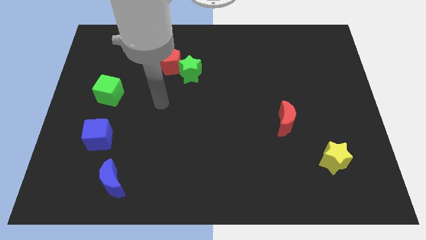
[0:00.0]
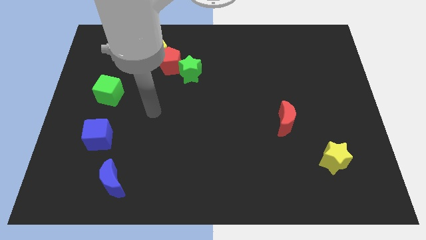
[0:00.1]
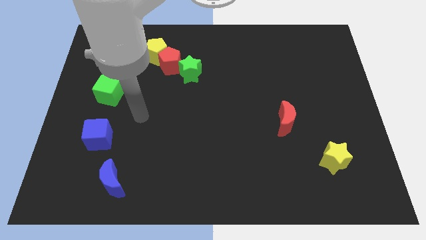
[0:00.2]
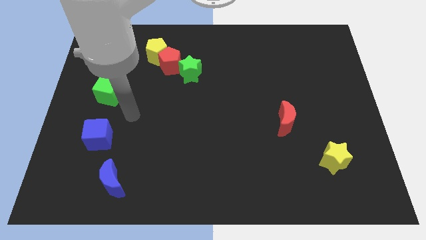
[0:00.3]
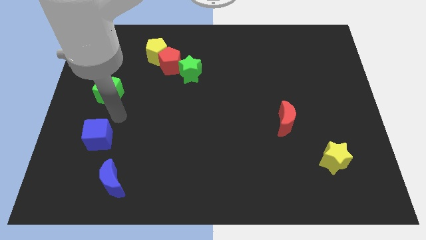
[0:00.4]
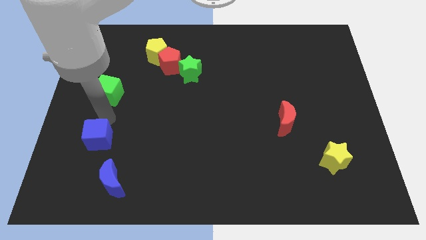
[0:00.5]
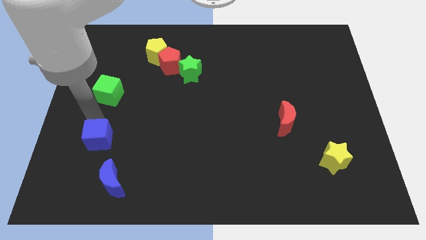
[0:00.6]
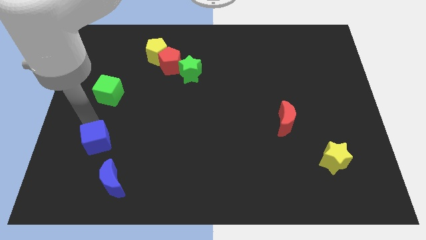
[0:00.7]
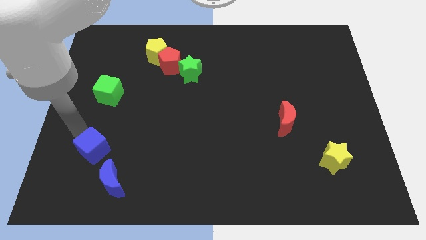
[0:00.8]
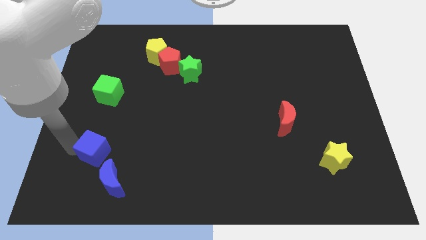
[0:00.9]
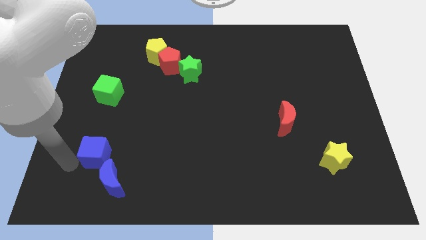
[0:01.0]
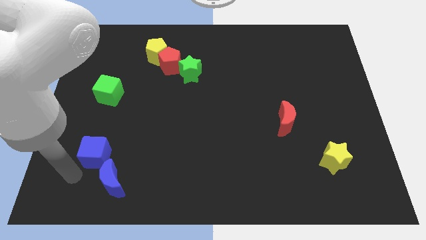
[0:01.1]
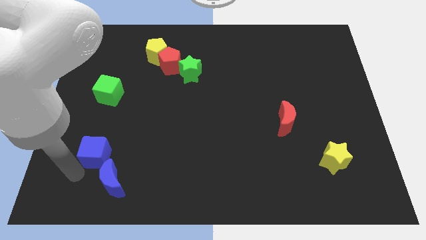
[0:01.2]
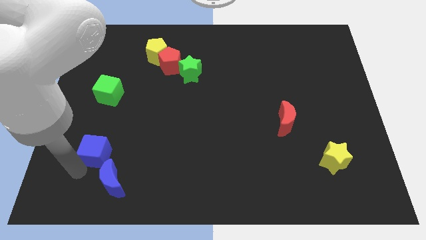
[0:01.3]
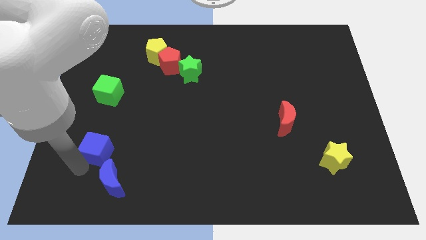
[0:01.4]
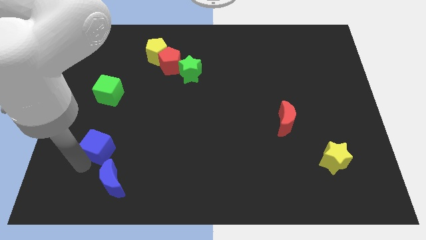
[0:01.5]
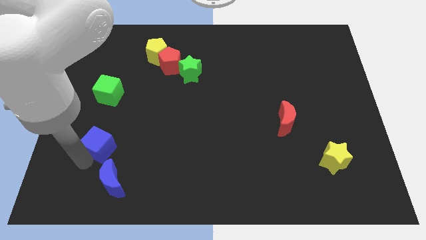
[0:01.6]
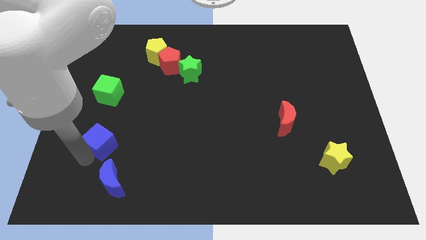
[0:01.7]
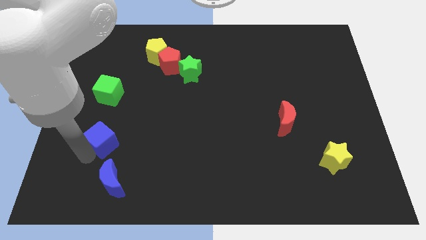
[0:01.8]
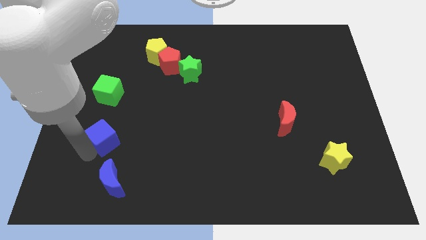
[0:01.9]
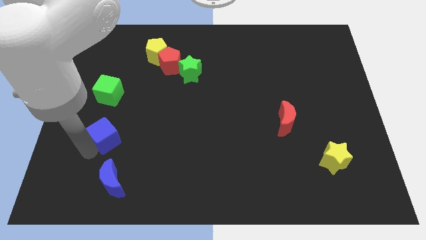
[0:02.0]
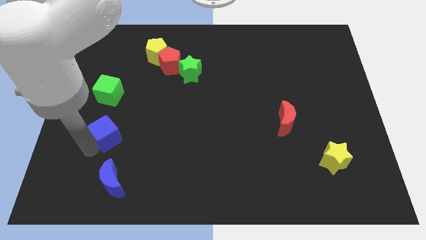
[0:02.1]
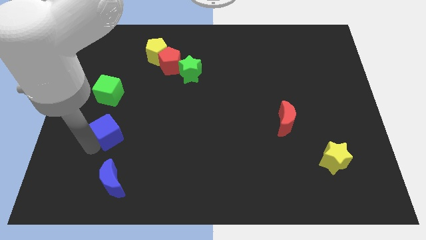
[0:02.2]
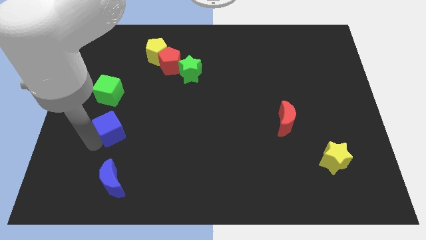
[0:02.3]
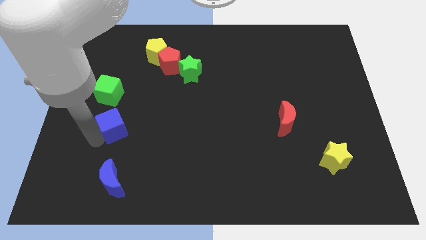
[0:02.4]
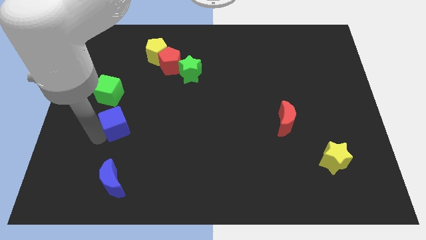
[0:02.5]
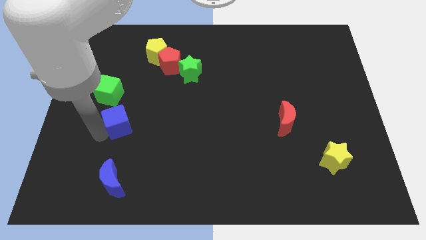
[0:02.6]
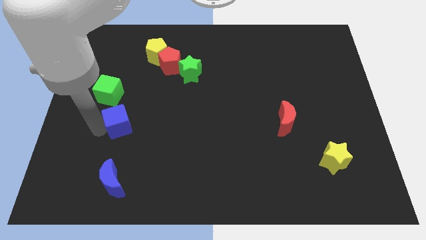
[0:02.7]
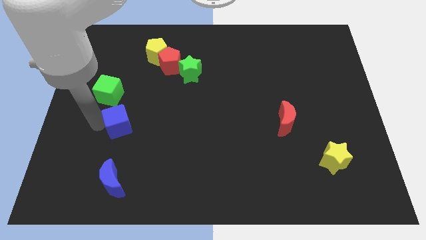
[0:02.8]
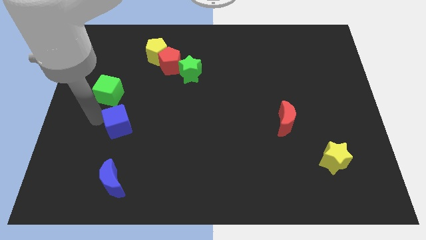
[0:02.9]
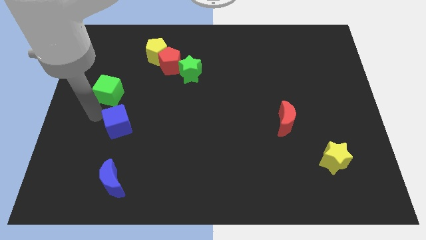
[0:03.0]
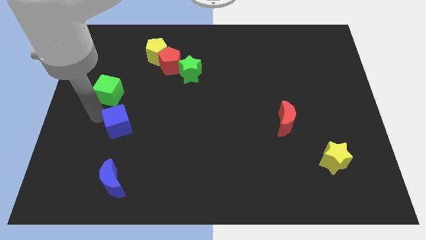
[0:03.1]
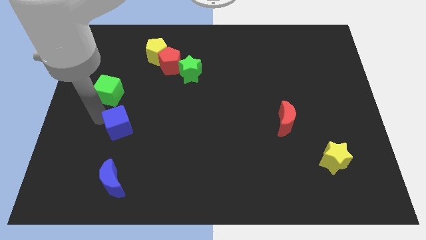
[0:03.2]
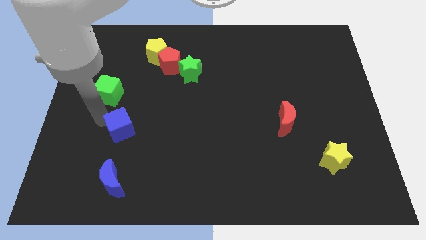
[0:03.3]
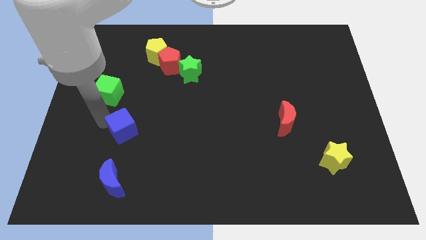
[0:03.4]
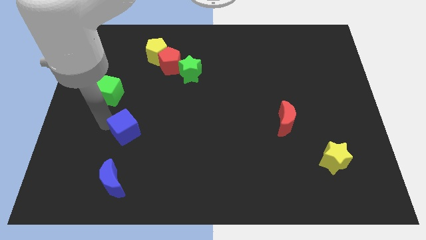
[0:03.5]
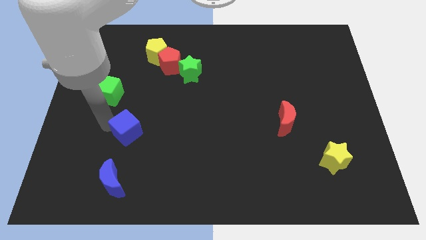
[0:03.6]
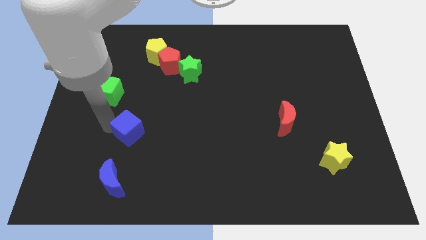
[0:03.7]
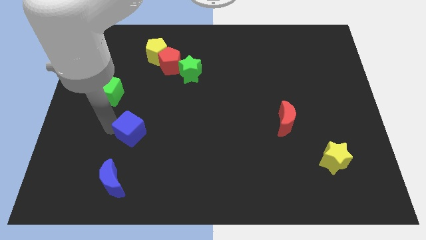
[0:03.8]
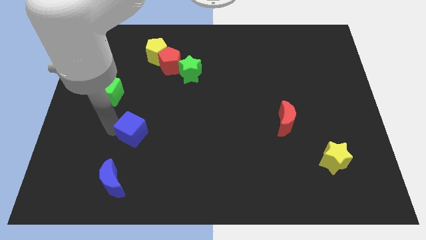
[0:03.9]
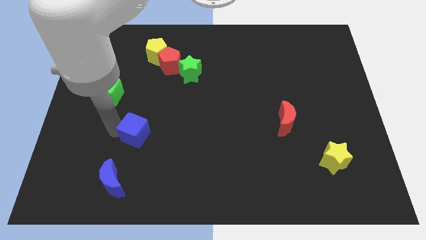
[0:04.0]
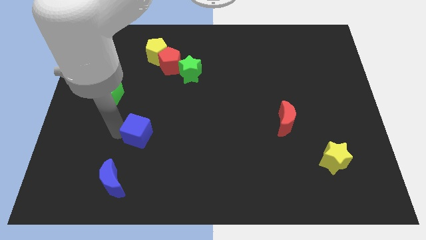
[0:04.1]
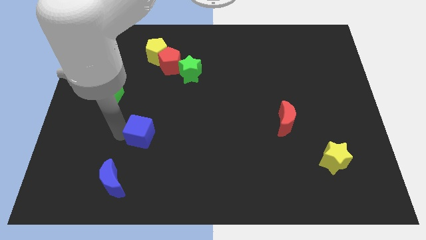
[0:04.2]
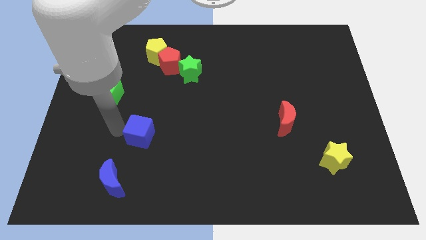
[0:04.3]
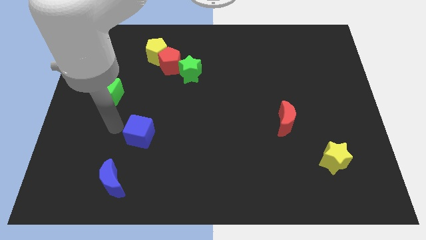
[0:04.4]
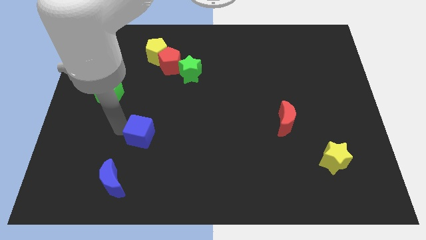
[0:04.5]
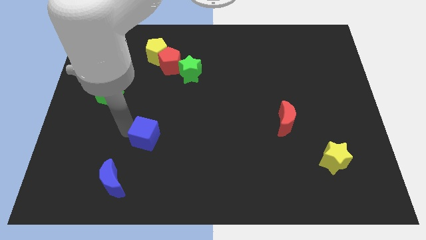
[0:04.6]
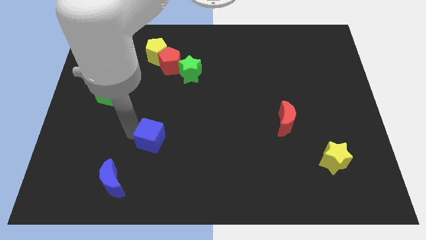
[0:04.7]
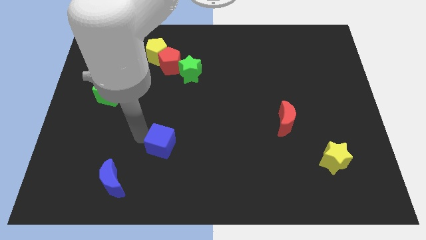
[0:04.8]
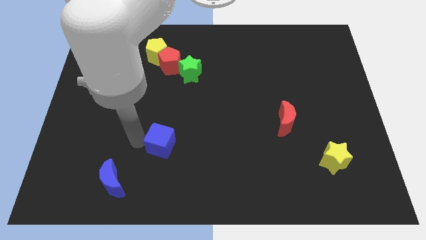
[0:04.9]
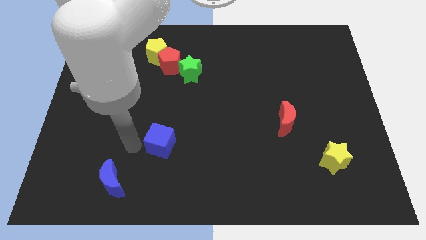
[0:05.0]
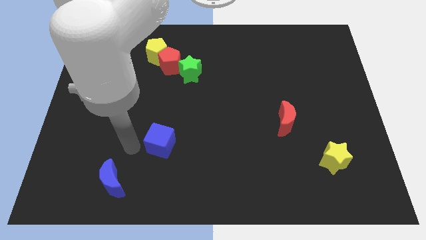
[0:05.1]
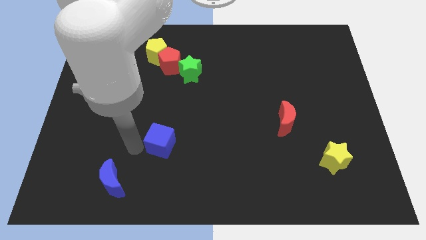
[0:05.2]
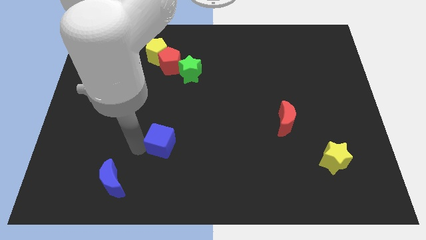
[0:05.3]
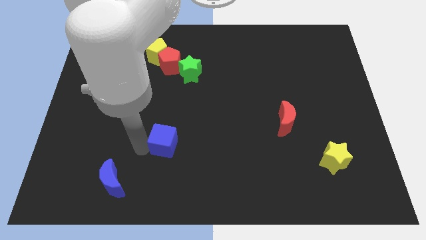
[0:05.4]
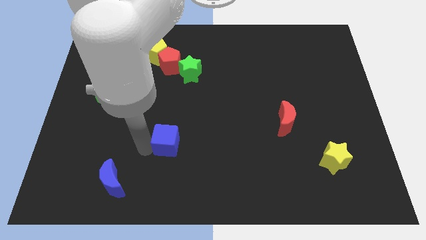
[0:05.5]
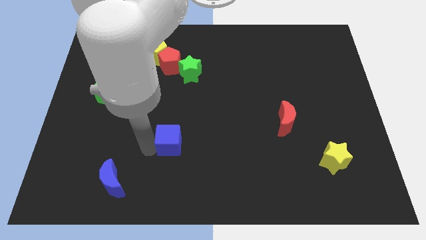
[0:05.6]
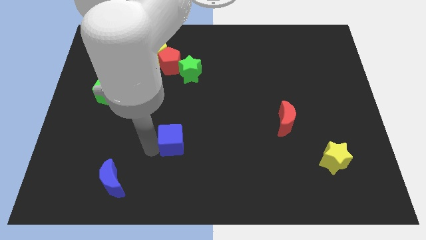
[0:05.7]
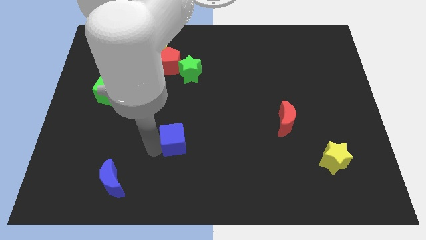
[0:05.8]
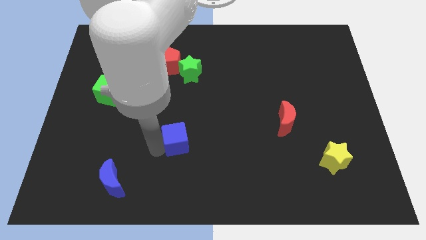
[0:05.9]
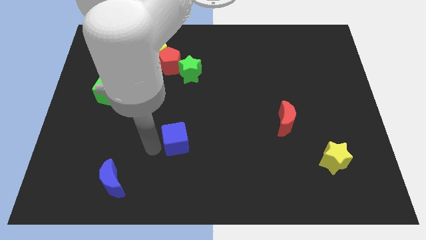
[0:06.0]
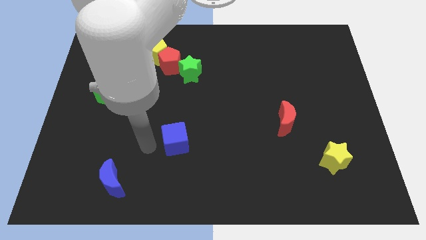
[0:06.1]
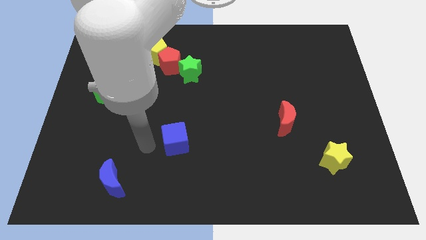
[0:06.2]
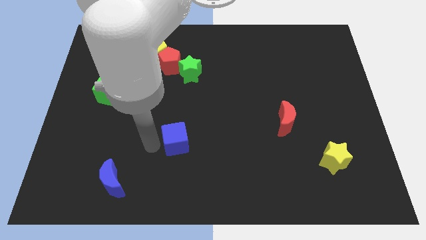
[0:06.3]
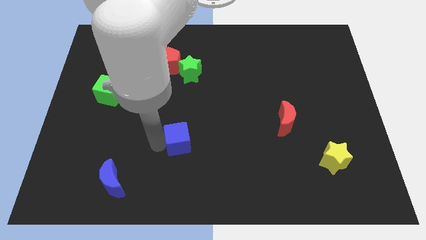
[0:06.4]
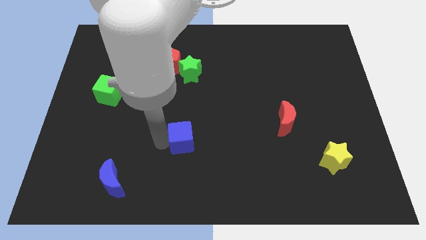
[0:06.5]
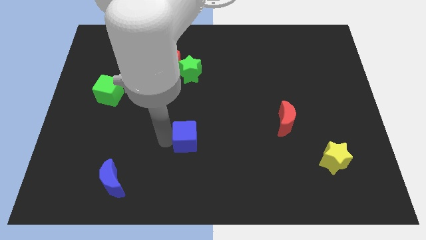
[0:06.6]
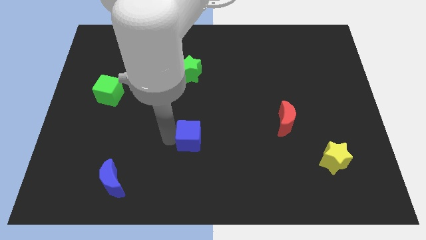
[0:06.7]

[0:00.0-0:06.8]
push the blue cube right

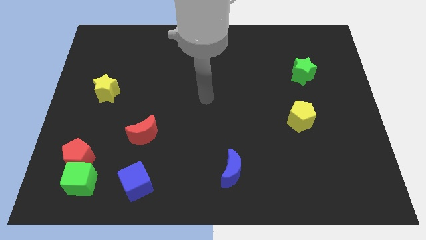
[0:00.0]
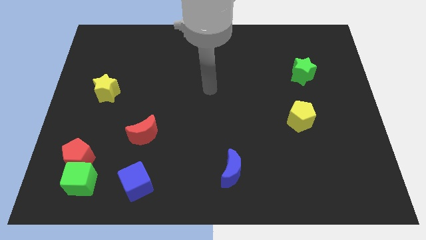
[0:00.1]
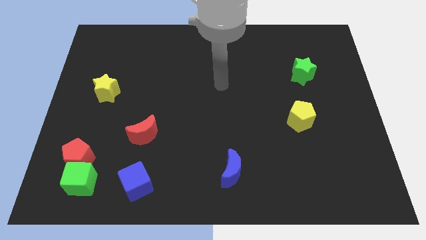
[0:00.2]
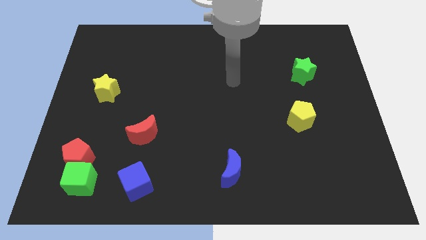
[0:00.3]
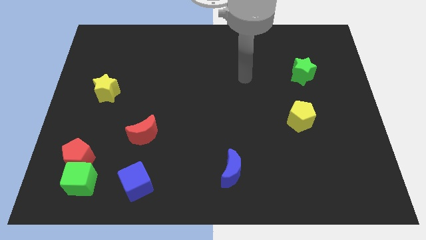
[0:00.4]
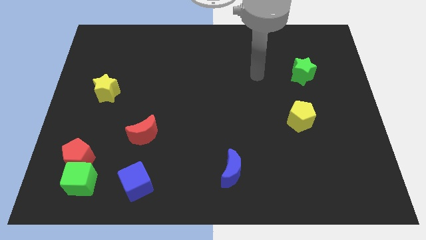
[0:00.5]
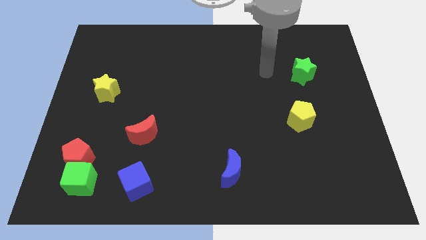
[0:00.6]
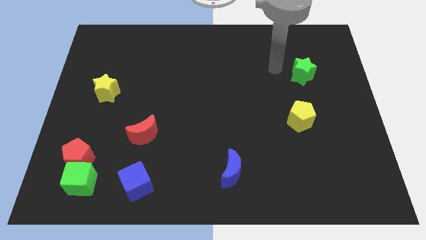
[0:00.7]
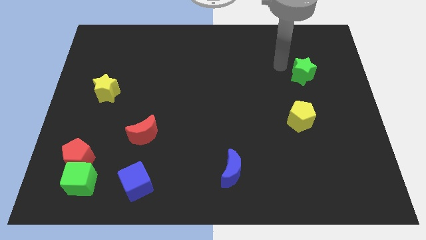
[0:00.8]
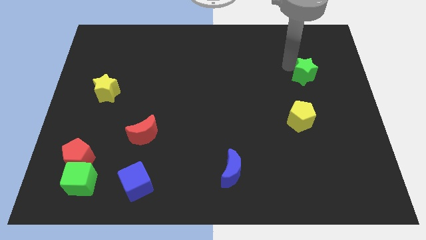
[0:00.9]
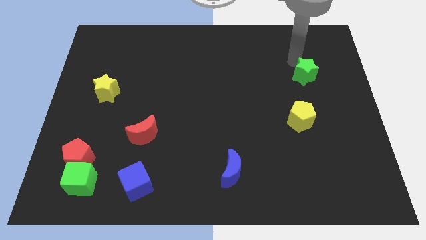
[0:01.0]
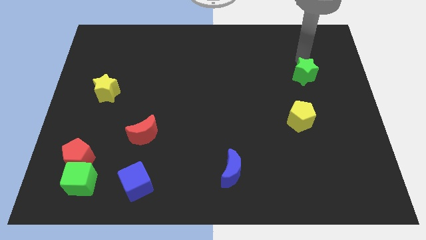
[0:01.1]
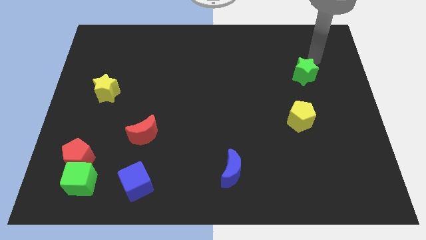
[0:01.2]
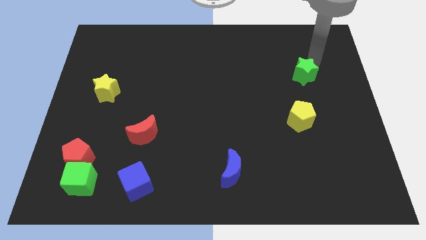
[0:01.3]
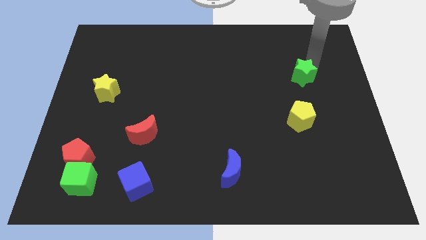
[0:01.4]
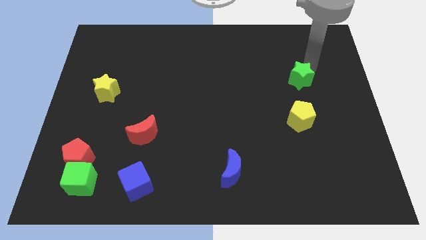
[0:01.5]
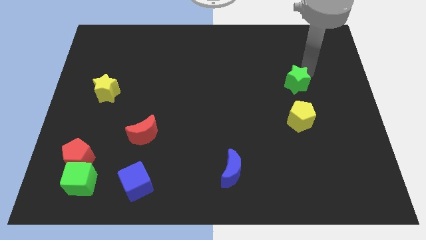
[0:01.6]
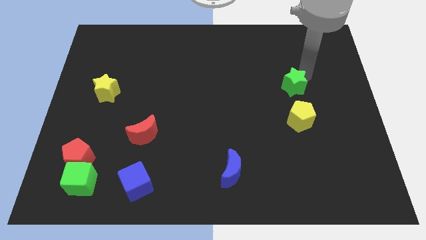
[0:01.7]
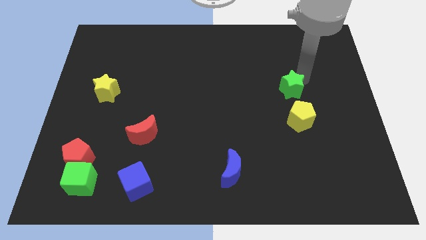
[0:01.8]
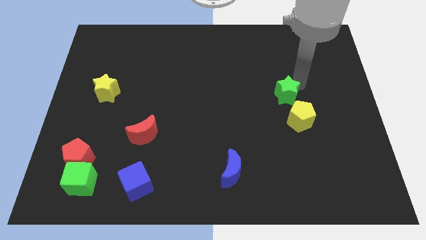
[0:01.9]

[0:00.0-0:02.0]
push the green star a little downwards and left
